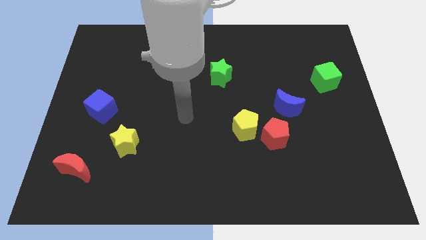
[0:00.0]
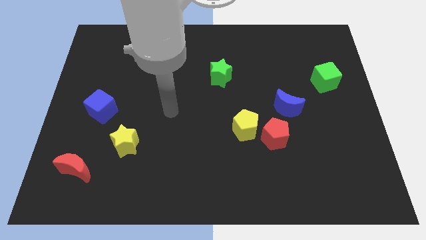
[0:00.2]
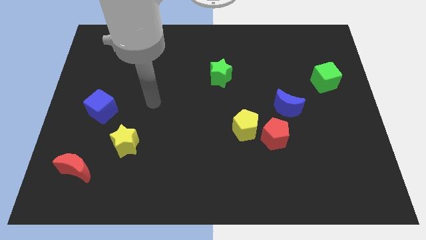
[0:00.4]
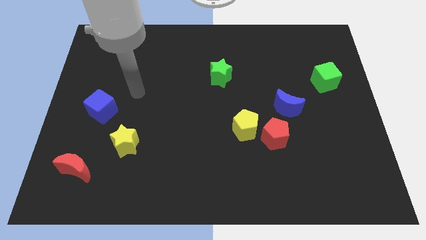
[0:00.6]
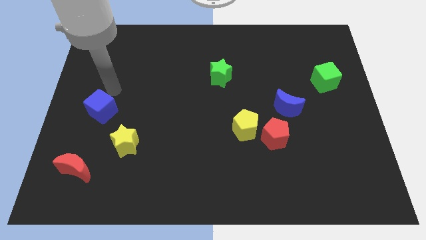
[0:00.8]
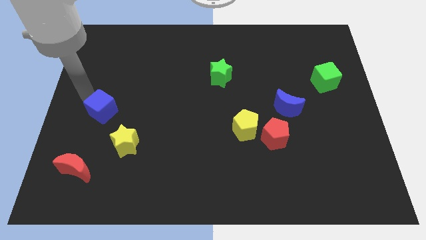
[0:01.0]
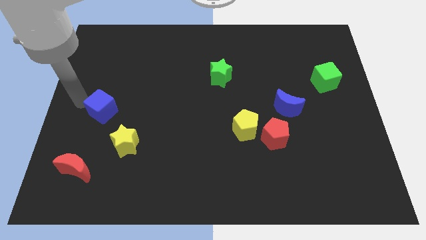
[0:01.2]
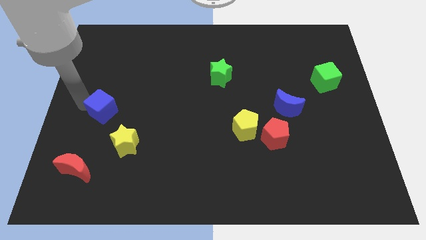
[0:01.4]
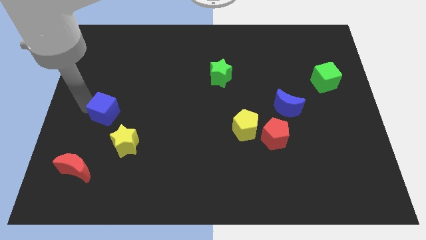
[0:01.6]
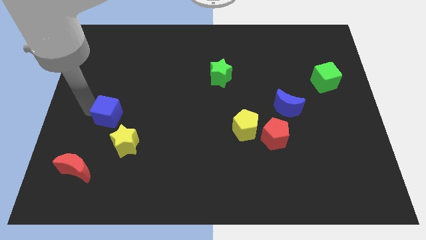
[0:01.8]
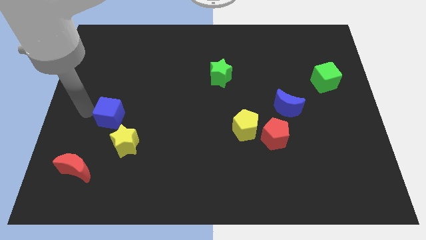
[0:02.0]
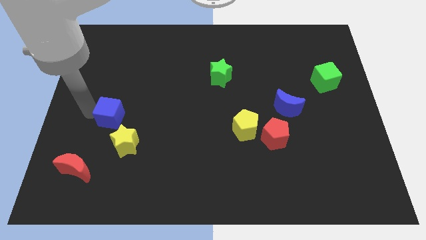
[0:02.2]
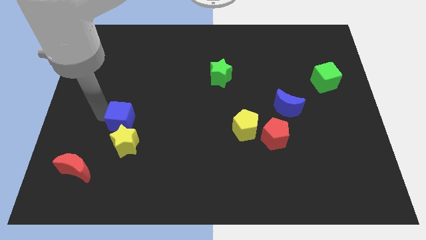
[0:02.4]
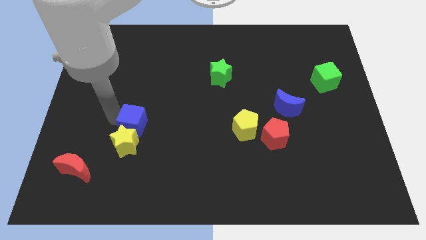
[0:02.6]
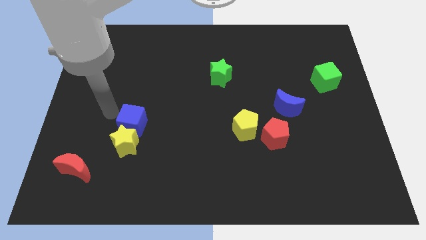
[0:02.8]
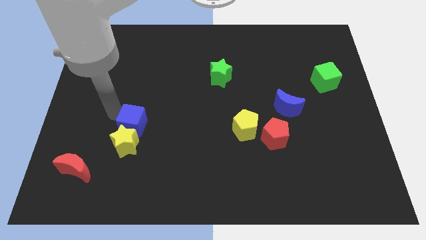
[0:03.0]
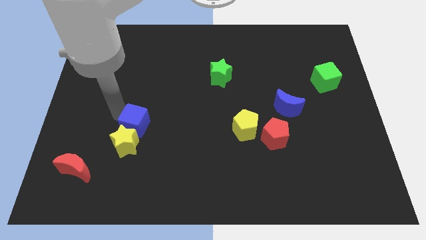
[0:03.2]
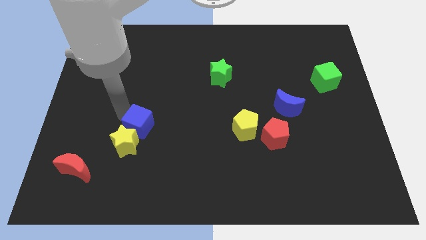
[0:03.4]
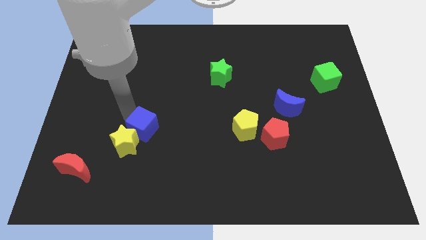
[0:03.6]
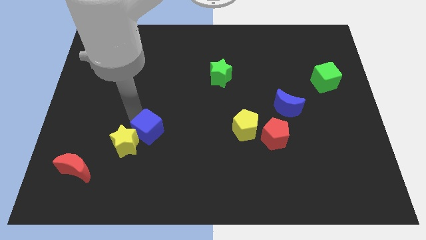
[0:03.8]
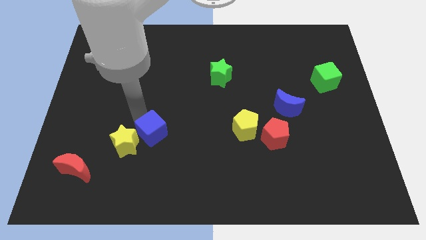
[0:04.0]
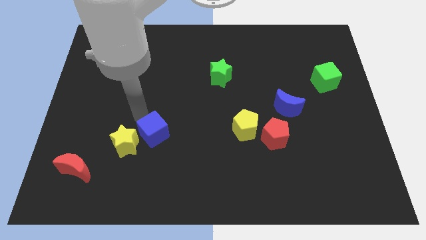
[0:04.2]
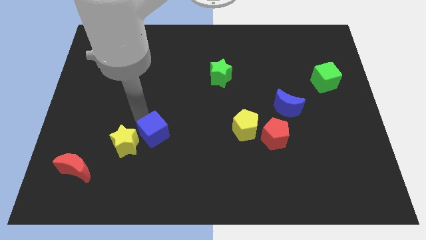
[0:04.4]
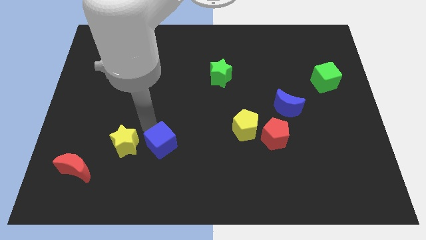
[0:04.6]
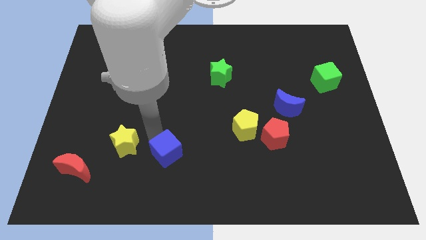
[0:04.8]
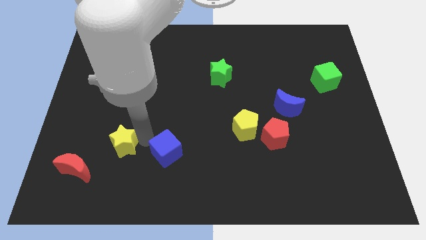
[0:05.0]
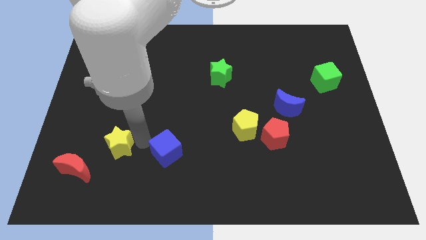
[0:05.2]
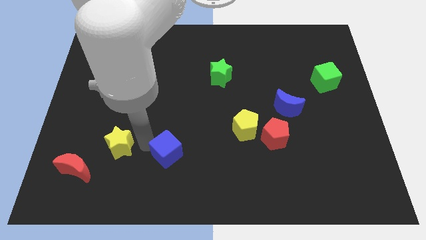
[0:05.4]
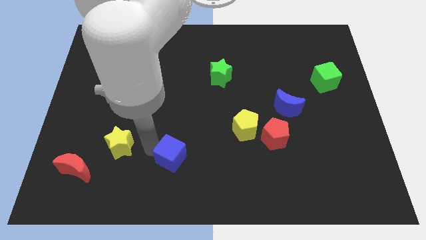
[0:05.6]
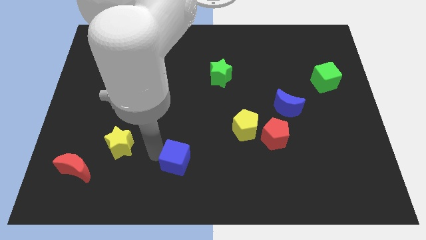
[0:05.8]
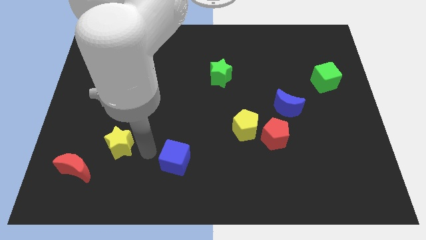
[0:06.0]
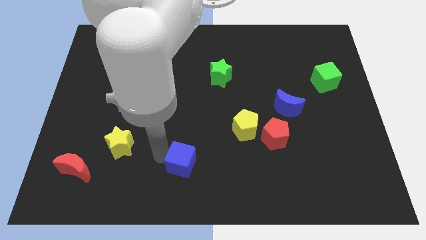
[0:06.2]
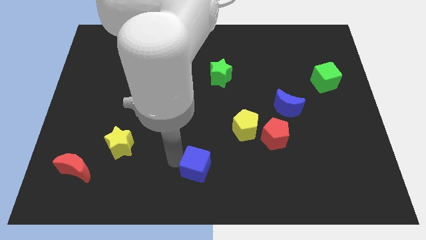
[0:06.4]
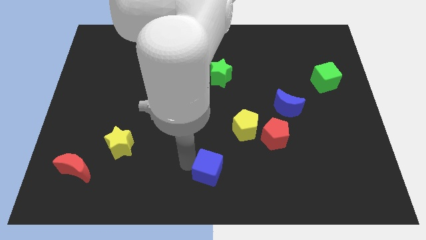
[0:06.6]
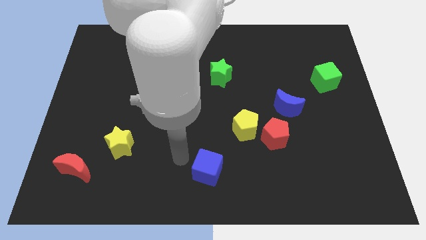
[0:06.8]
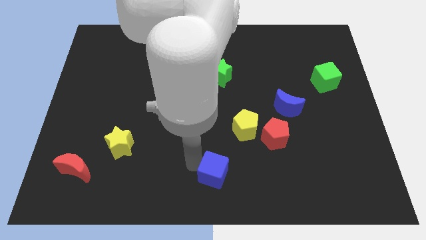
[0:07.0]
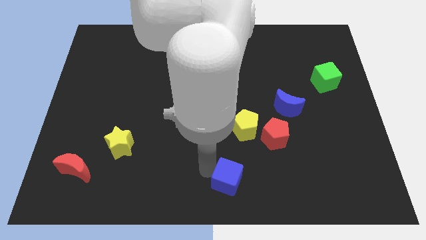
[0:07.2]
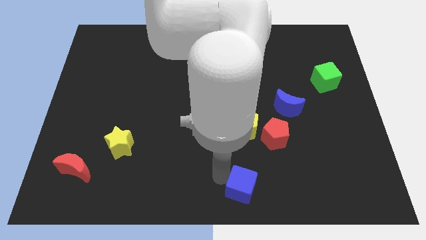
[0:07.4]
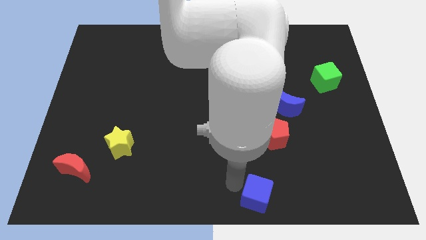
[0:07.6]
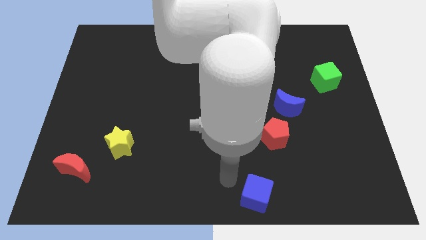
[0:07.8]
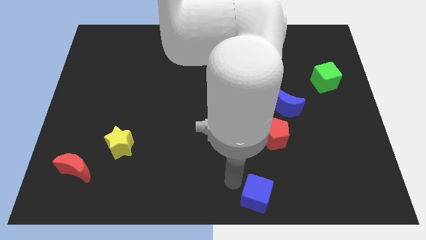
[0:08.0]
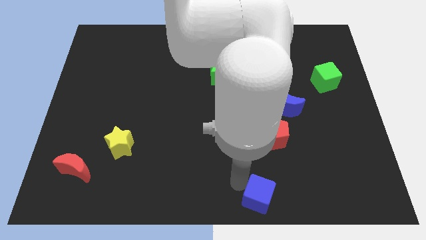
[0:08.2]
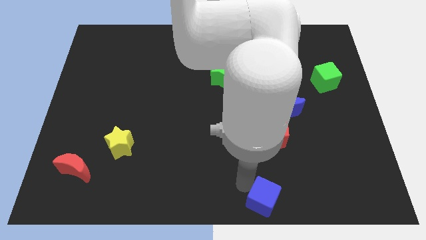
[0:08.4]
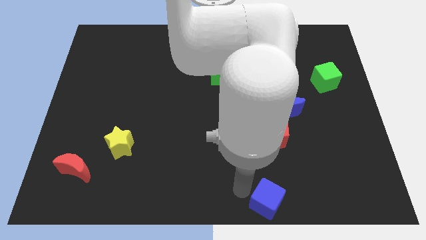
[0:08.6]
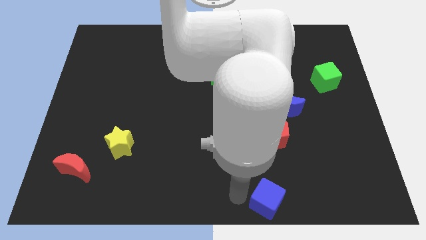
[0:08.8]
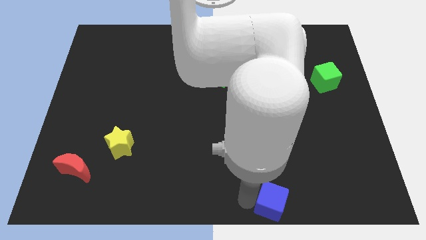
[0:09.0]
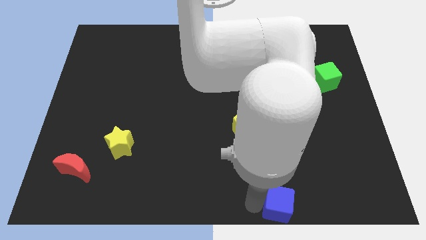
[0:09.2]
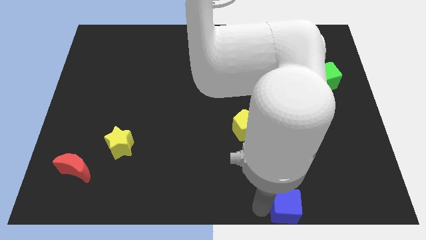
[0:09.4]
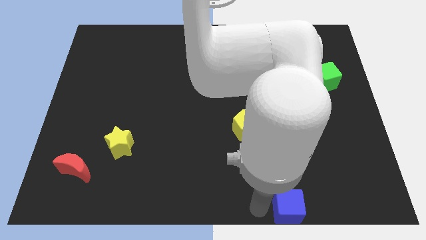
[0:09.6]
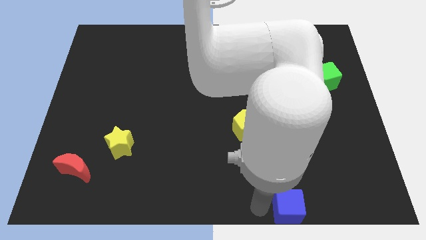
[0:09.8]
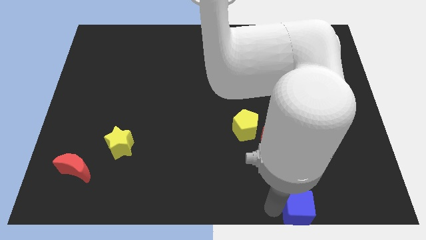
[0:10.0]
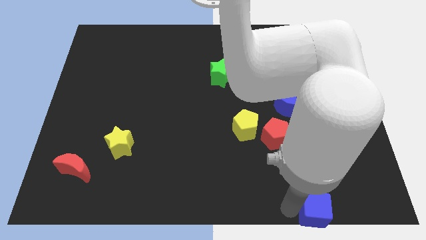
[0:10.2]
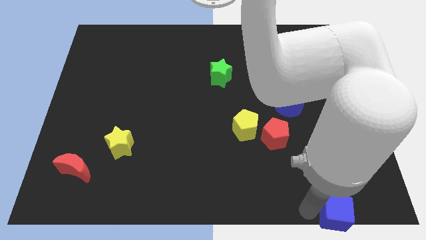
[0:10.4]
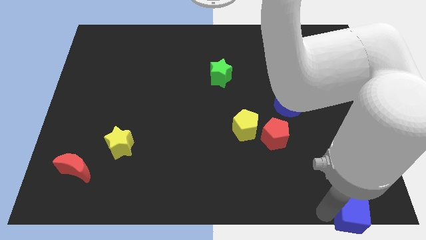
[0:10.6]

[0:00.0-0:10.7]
slide the blue cube to the bottom right corner

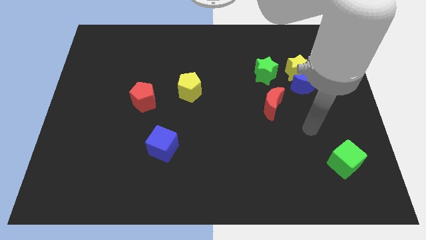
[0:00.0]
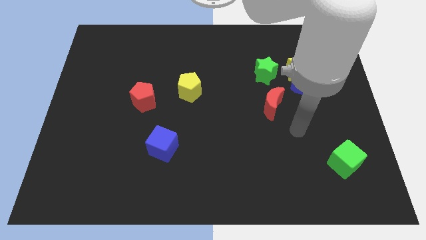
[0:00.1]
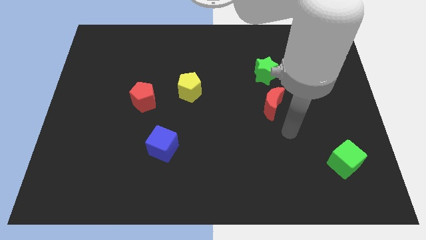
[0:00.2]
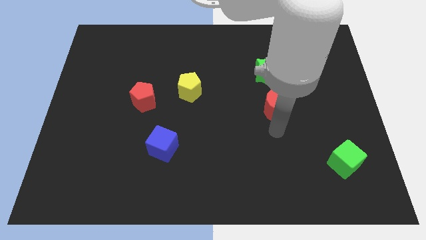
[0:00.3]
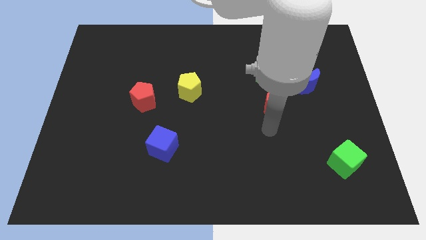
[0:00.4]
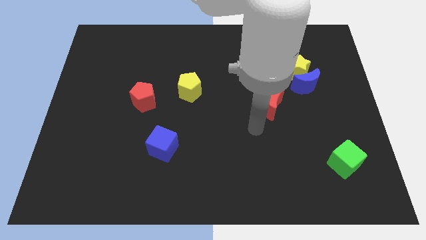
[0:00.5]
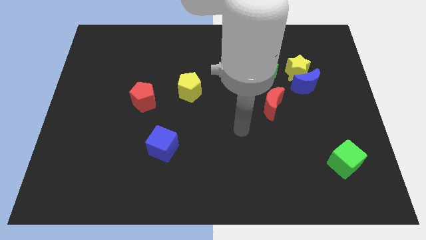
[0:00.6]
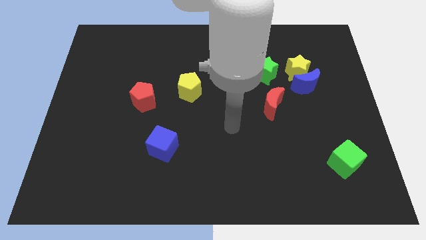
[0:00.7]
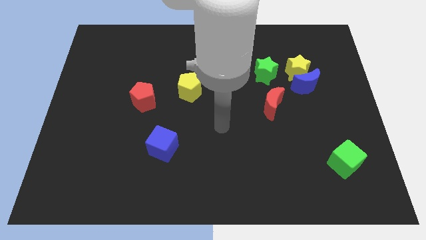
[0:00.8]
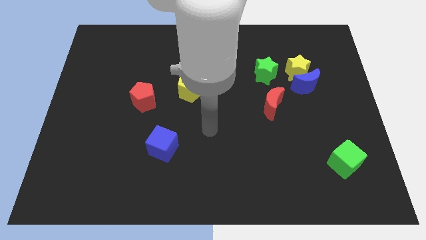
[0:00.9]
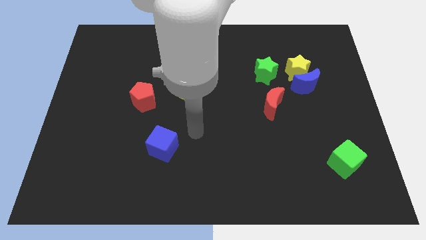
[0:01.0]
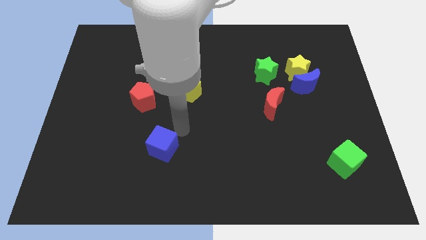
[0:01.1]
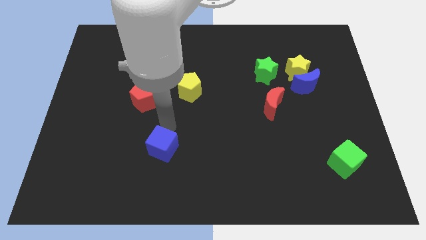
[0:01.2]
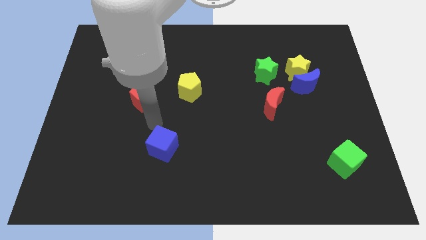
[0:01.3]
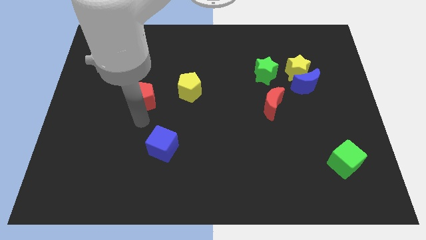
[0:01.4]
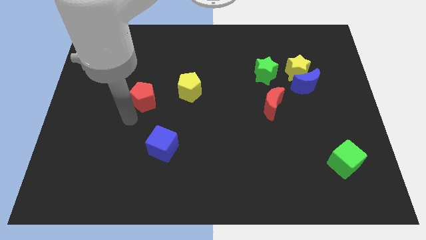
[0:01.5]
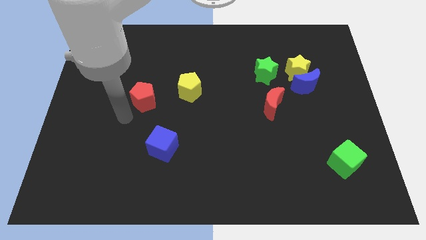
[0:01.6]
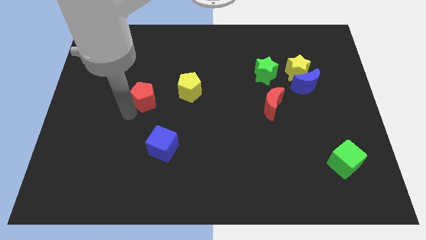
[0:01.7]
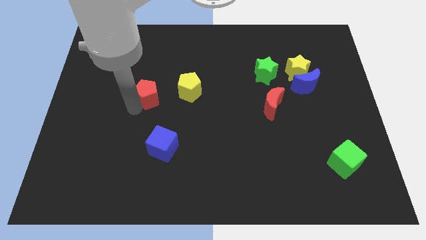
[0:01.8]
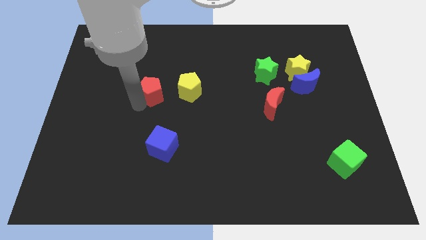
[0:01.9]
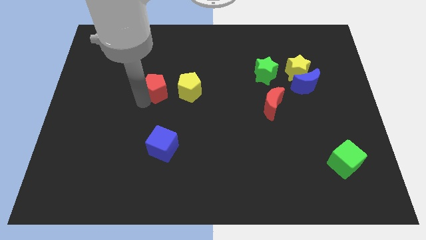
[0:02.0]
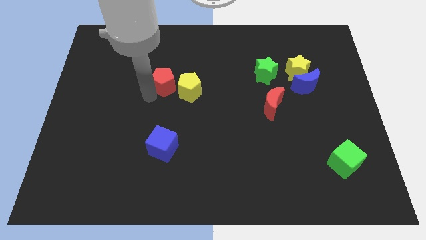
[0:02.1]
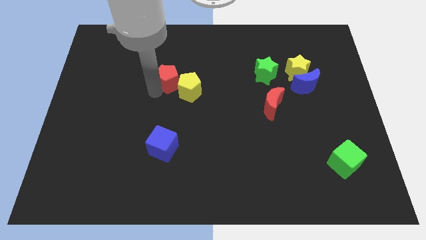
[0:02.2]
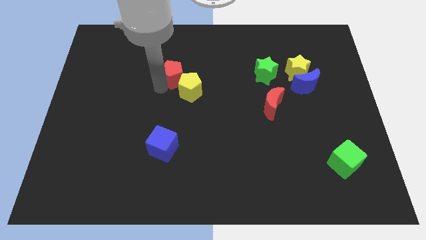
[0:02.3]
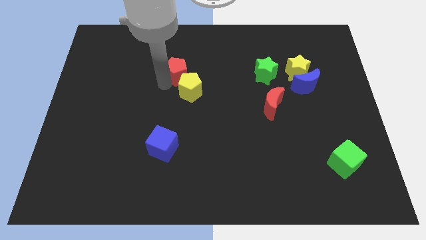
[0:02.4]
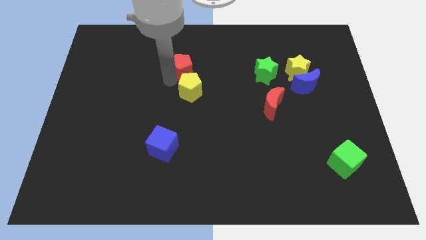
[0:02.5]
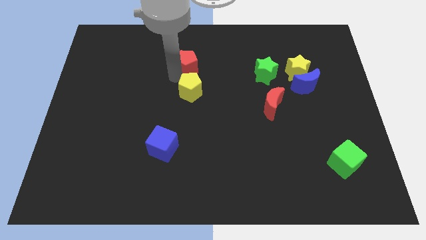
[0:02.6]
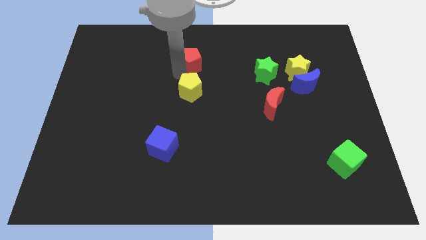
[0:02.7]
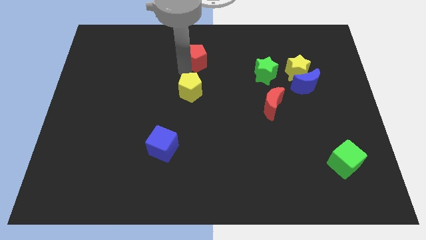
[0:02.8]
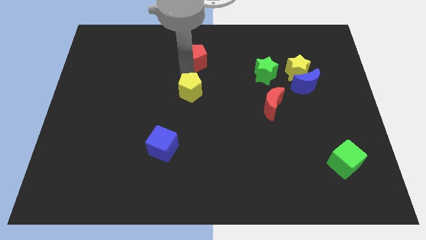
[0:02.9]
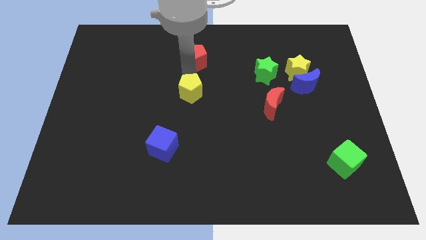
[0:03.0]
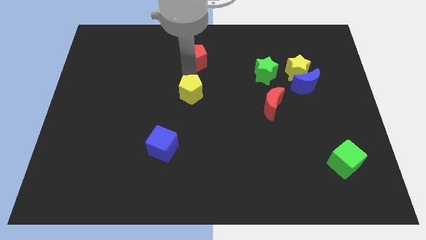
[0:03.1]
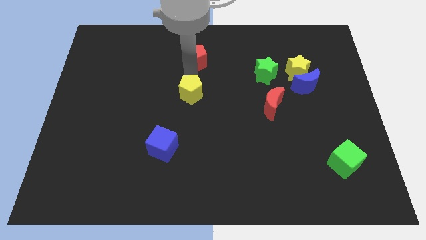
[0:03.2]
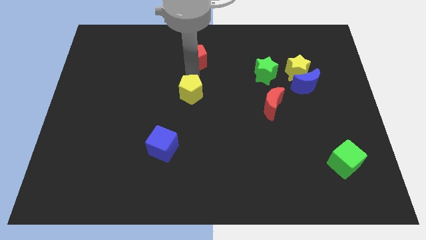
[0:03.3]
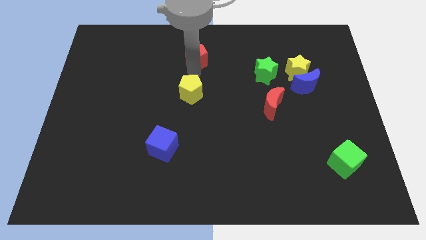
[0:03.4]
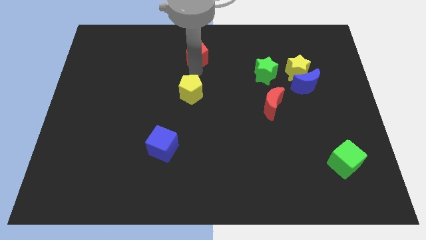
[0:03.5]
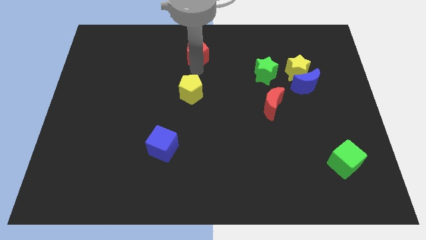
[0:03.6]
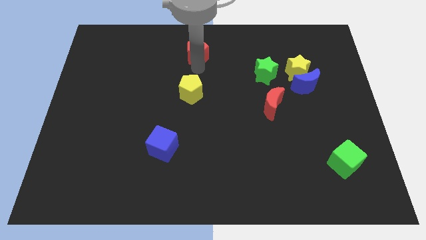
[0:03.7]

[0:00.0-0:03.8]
slide the red pentagon to the top side
